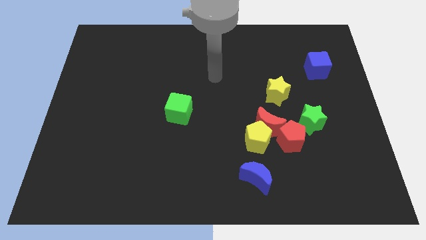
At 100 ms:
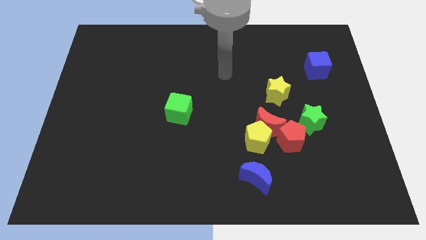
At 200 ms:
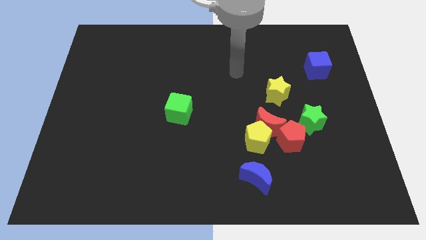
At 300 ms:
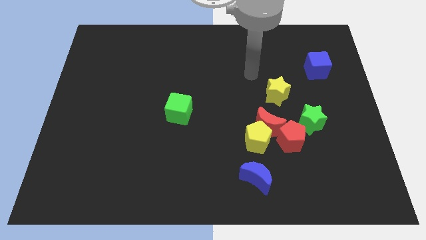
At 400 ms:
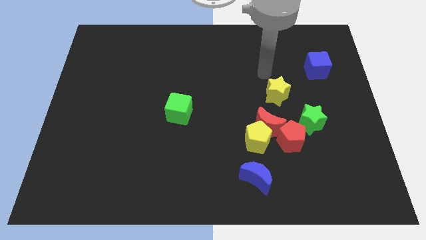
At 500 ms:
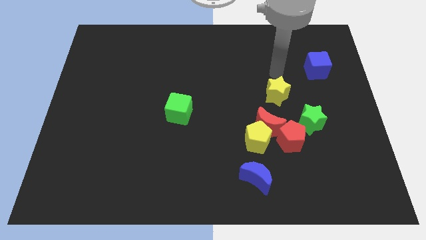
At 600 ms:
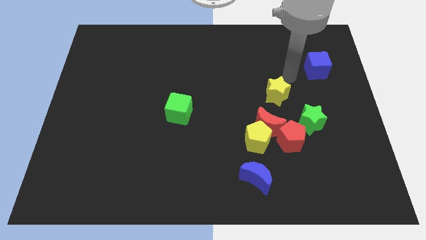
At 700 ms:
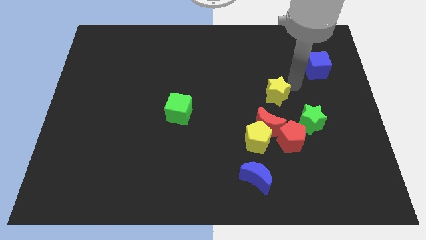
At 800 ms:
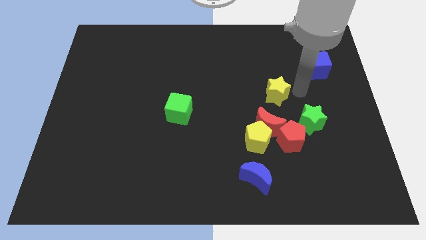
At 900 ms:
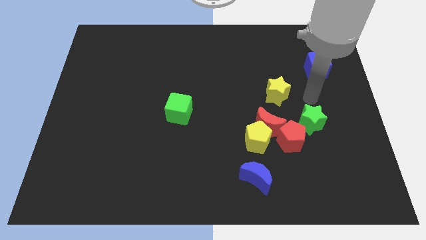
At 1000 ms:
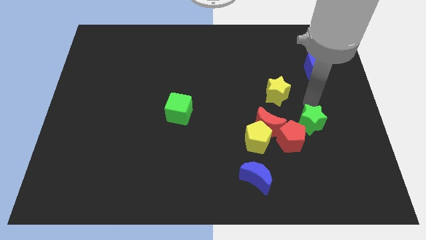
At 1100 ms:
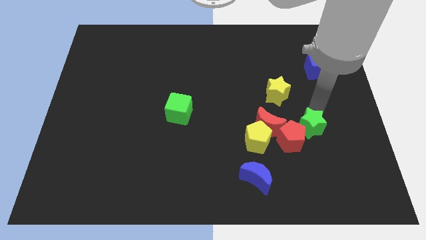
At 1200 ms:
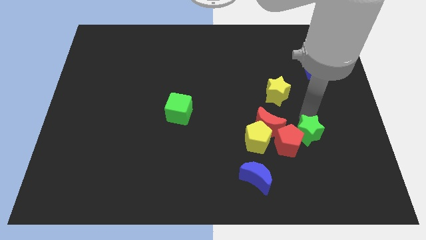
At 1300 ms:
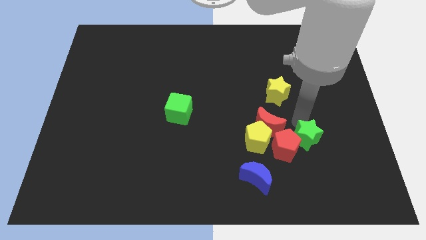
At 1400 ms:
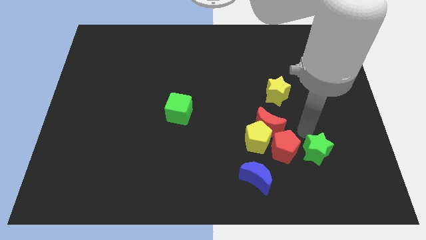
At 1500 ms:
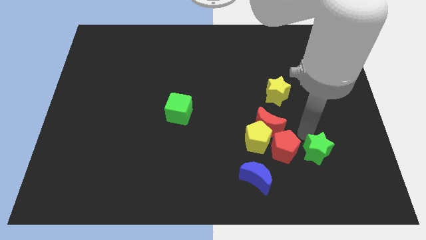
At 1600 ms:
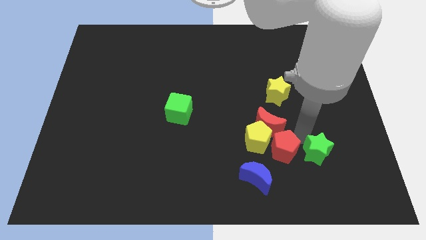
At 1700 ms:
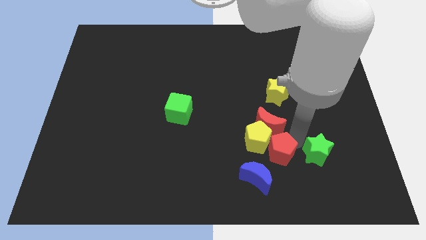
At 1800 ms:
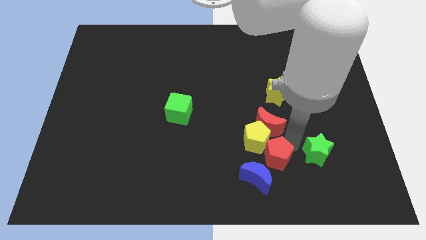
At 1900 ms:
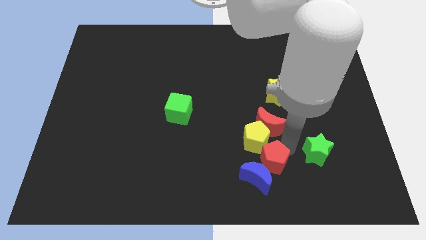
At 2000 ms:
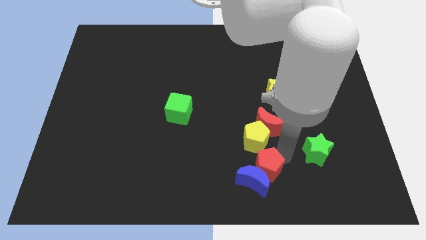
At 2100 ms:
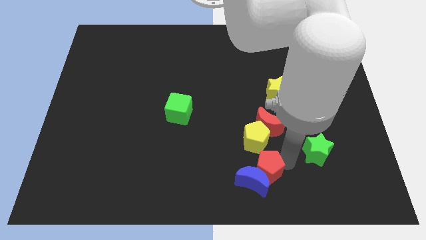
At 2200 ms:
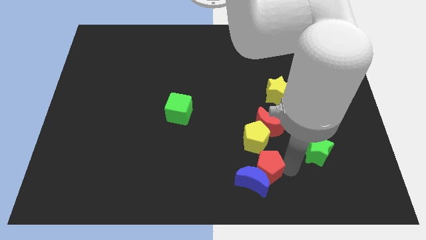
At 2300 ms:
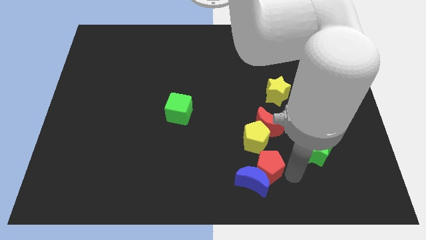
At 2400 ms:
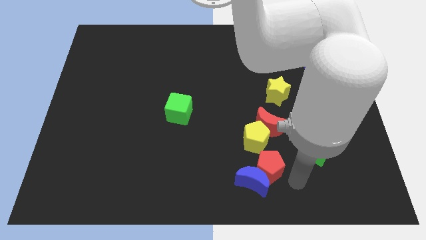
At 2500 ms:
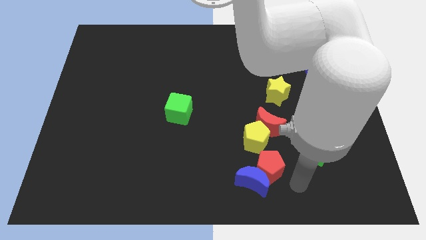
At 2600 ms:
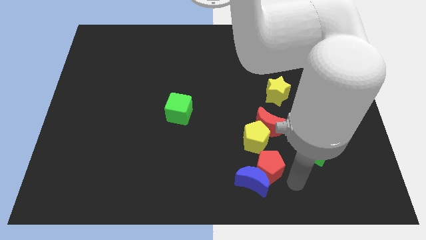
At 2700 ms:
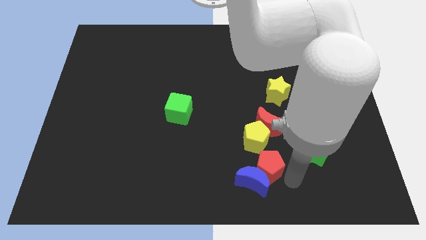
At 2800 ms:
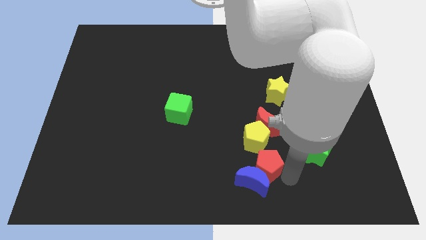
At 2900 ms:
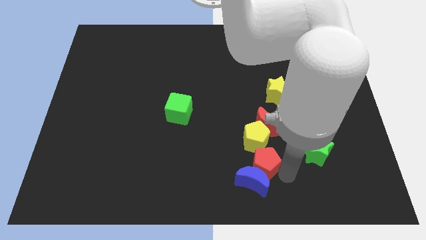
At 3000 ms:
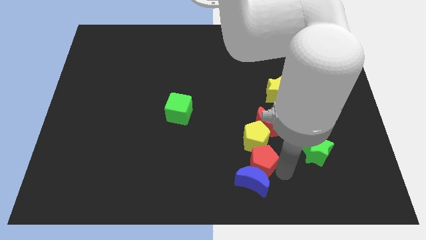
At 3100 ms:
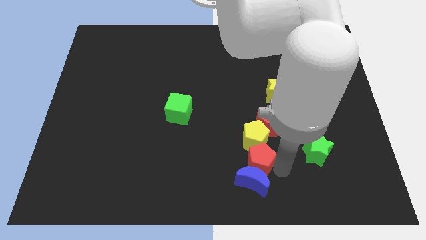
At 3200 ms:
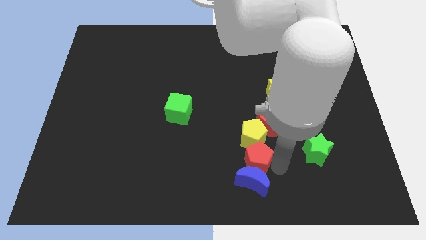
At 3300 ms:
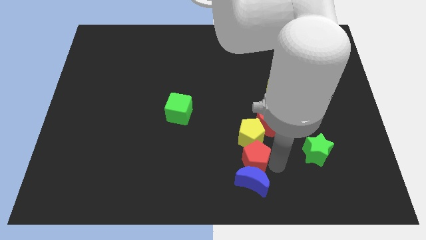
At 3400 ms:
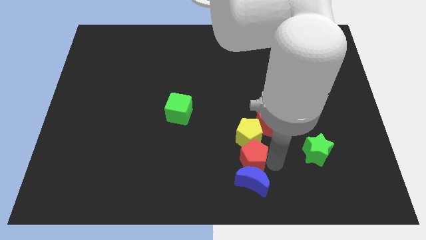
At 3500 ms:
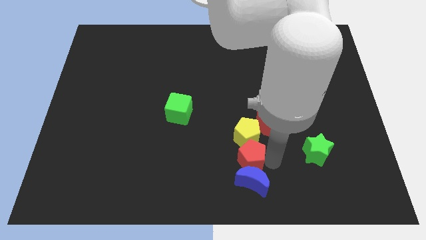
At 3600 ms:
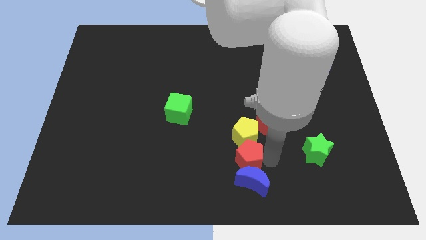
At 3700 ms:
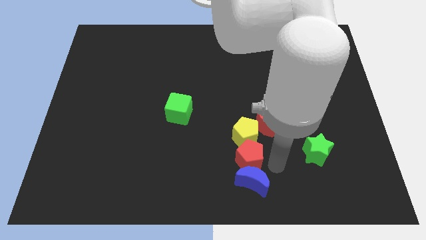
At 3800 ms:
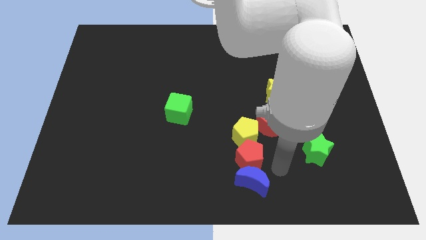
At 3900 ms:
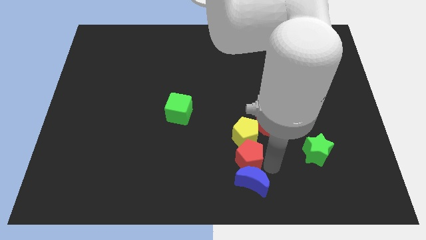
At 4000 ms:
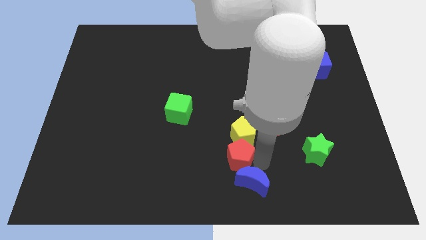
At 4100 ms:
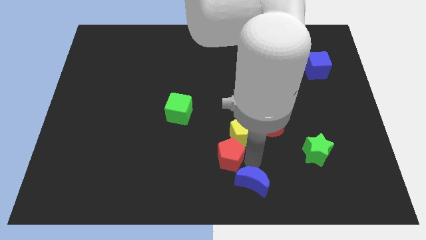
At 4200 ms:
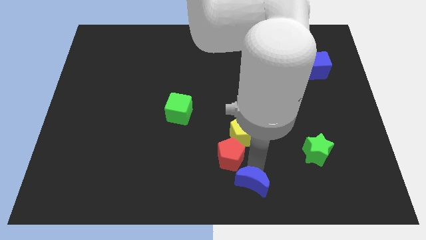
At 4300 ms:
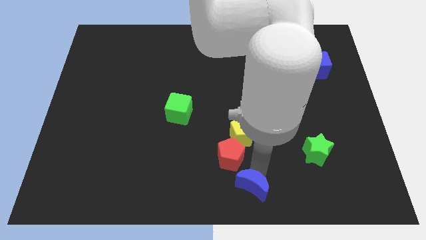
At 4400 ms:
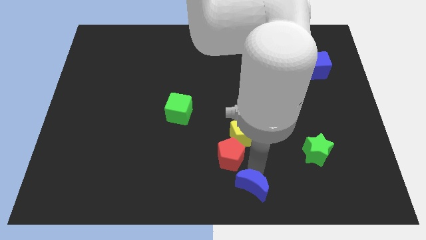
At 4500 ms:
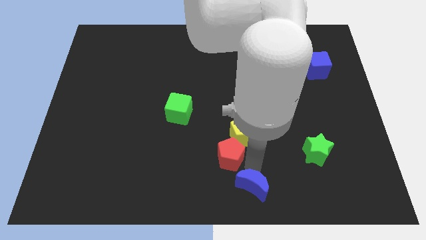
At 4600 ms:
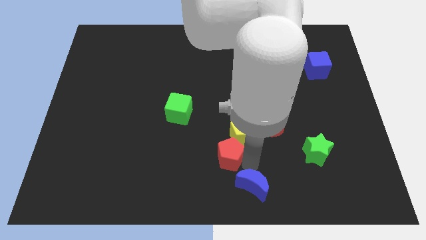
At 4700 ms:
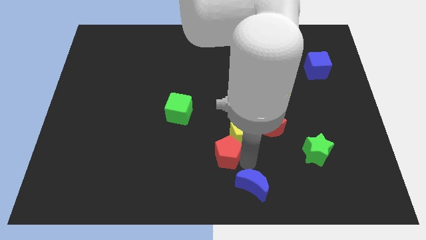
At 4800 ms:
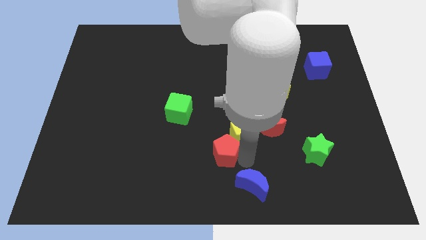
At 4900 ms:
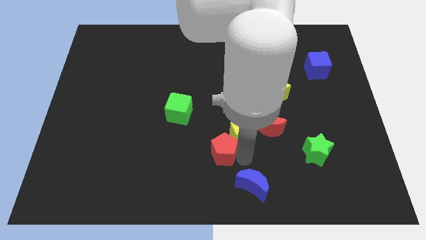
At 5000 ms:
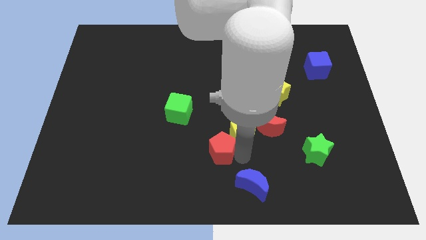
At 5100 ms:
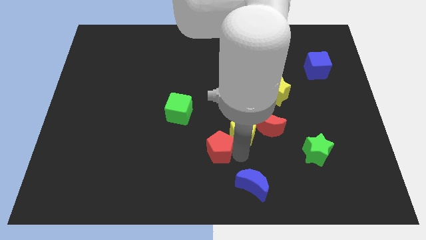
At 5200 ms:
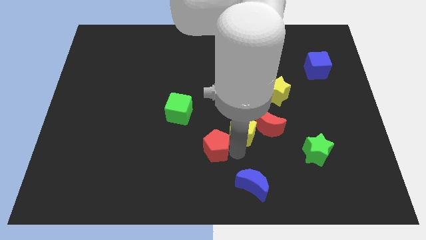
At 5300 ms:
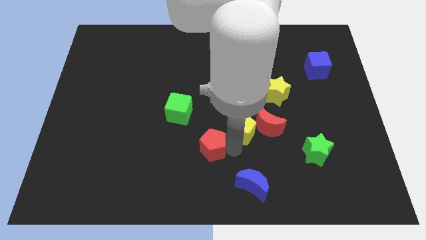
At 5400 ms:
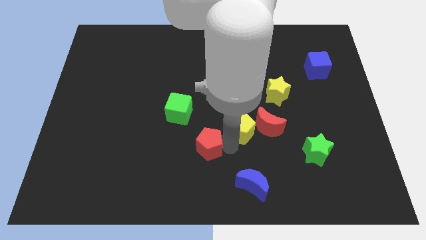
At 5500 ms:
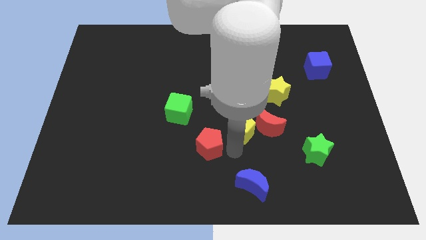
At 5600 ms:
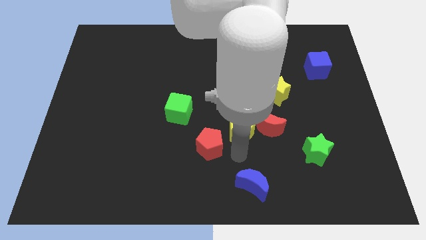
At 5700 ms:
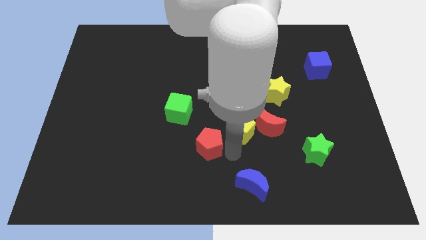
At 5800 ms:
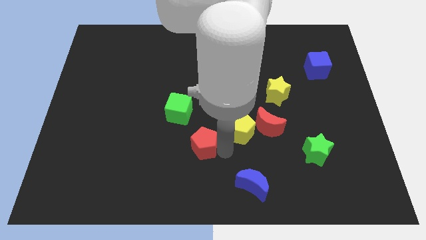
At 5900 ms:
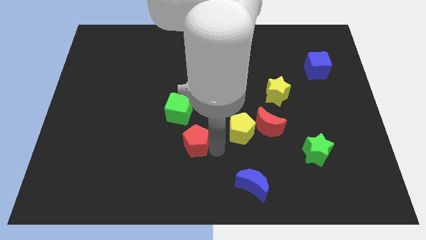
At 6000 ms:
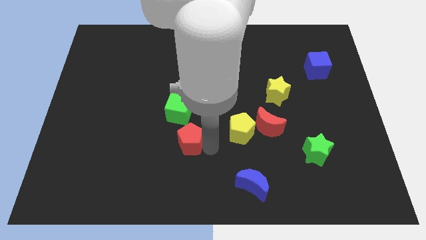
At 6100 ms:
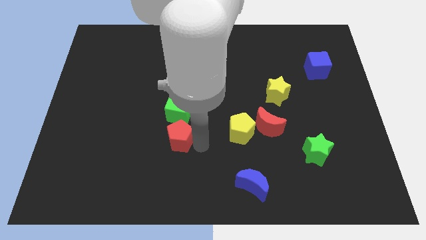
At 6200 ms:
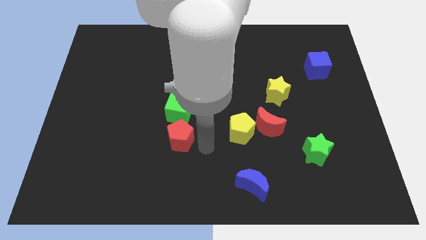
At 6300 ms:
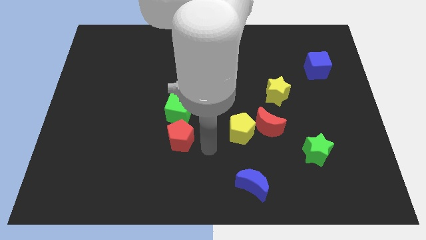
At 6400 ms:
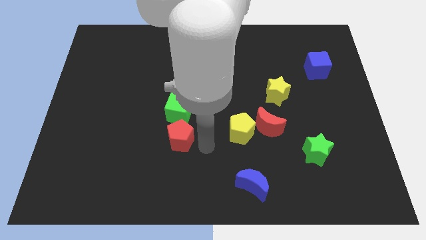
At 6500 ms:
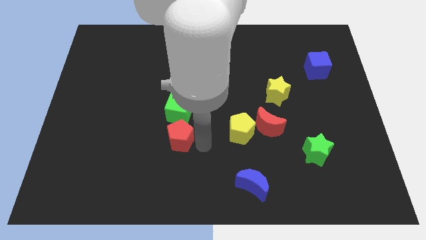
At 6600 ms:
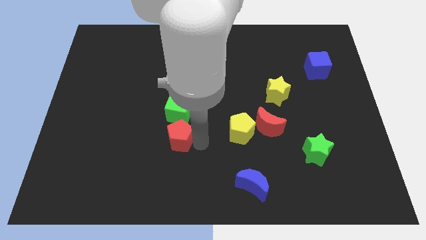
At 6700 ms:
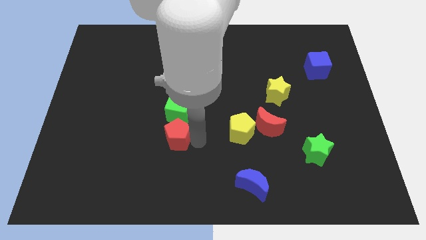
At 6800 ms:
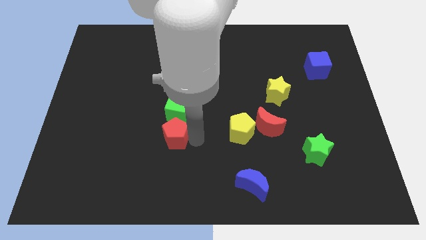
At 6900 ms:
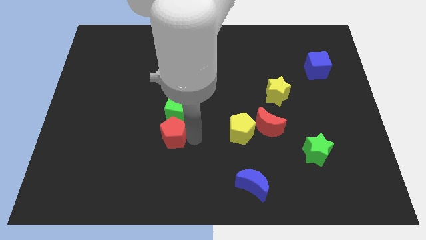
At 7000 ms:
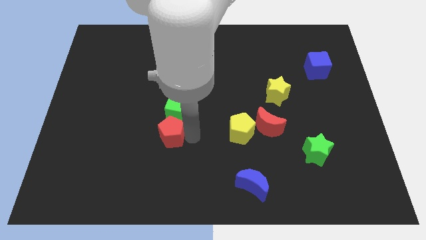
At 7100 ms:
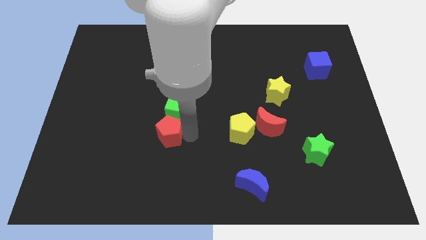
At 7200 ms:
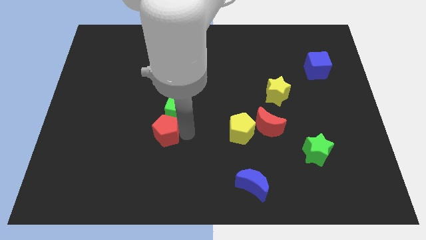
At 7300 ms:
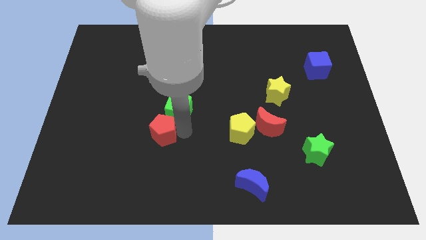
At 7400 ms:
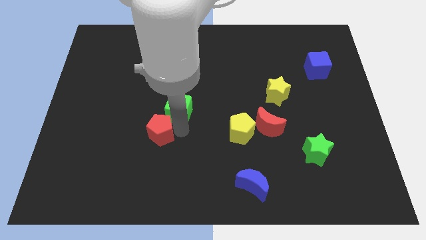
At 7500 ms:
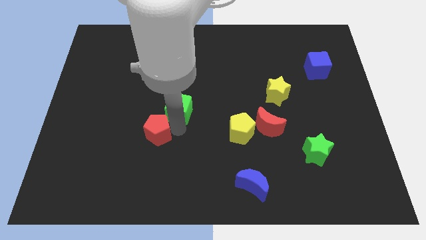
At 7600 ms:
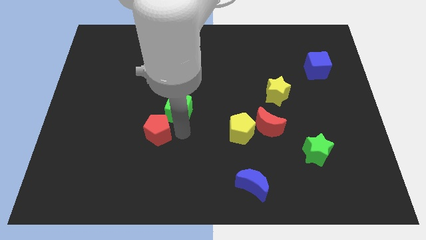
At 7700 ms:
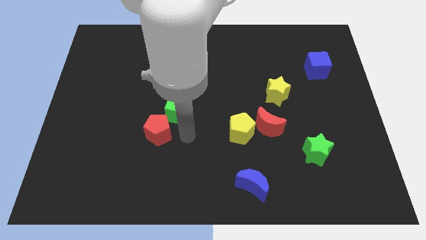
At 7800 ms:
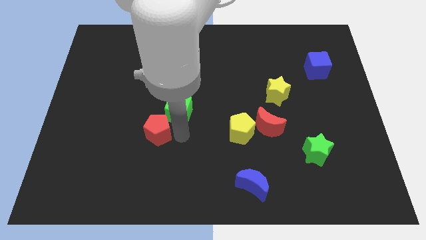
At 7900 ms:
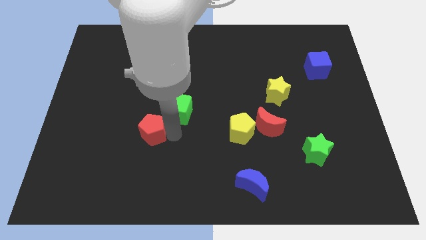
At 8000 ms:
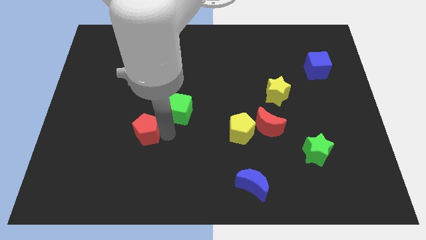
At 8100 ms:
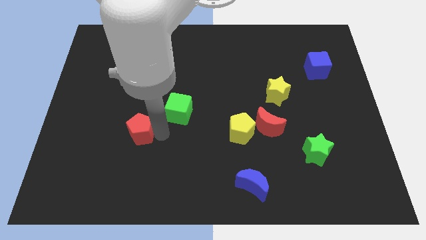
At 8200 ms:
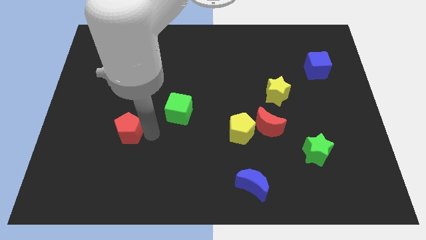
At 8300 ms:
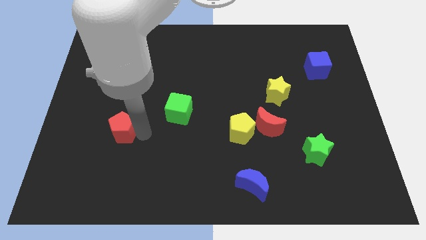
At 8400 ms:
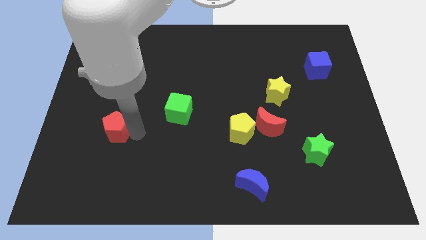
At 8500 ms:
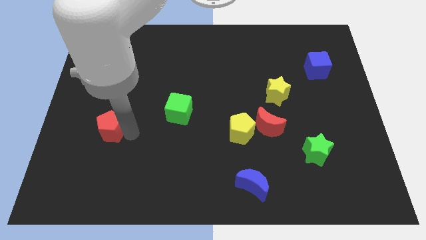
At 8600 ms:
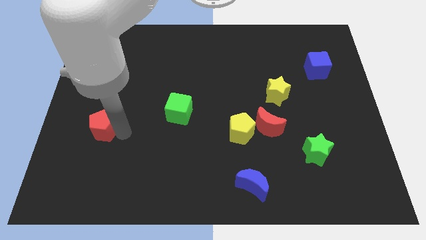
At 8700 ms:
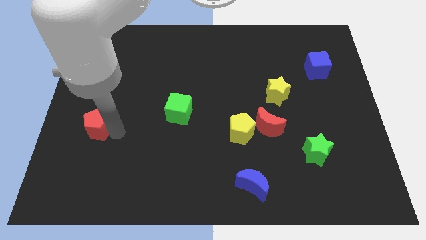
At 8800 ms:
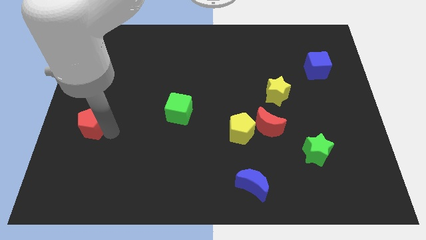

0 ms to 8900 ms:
move the red pentagon to the left side
